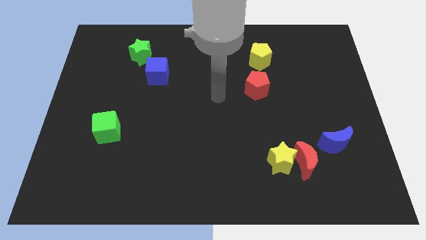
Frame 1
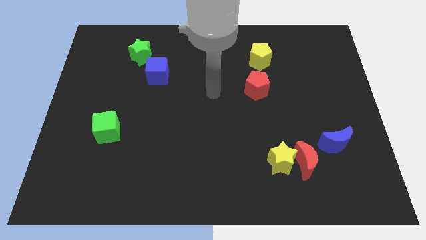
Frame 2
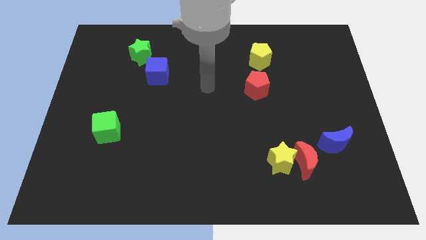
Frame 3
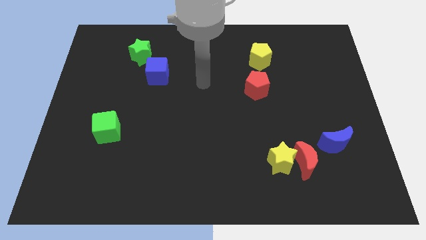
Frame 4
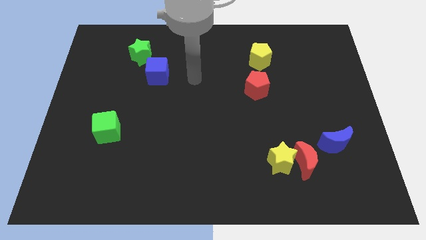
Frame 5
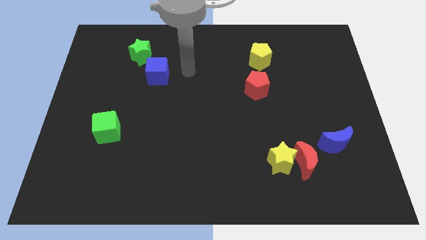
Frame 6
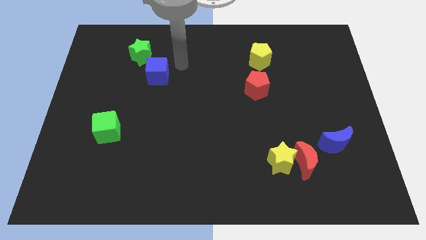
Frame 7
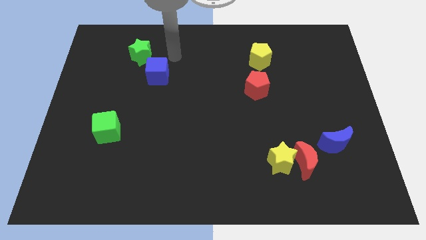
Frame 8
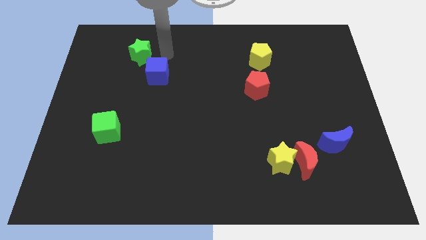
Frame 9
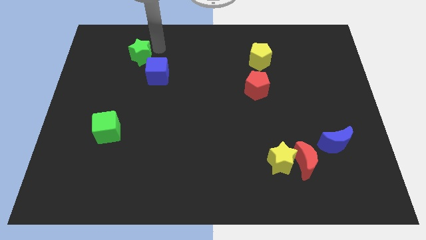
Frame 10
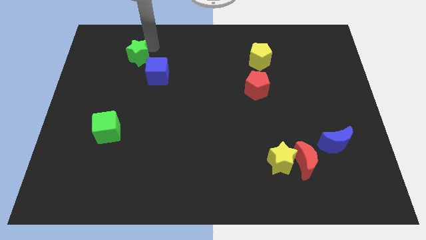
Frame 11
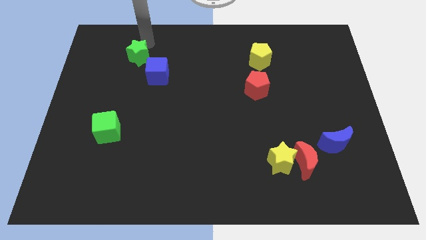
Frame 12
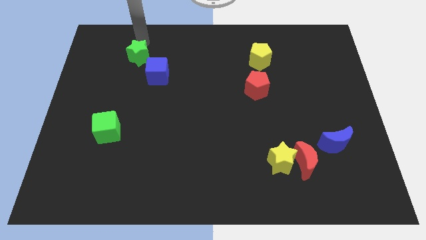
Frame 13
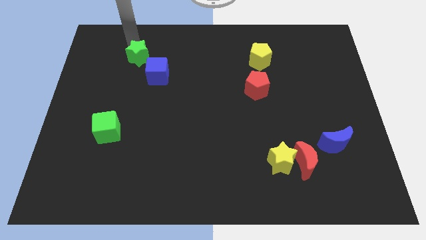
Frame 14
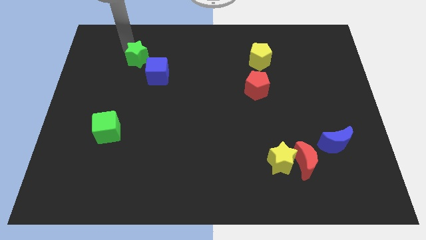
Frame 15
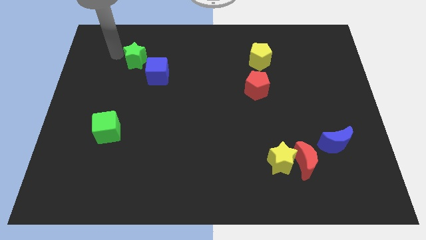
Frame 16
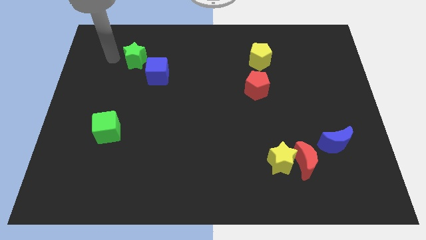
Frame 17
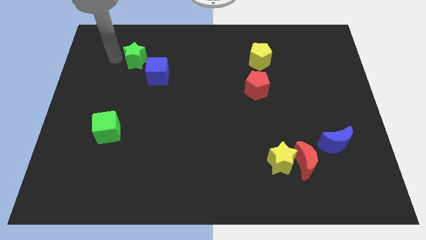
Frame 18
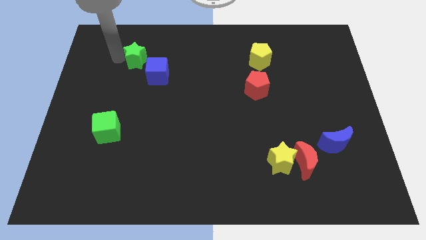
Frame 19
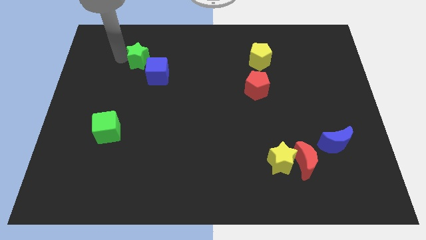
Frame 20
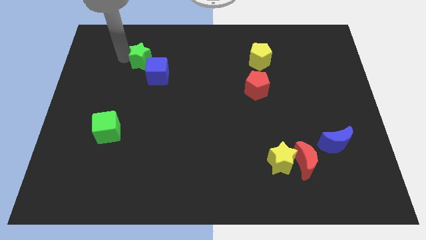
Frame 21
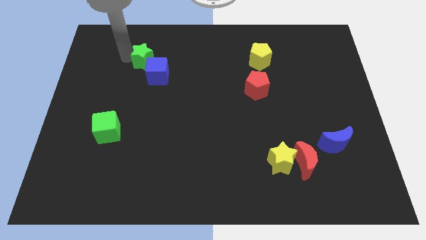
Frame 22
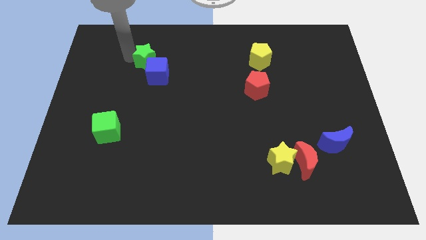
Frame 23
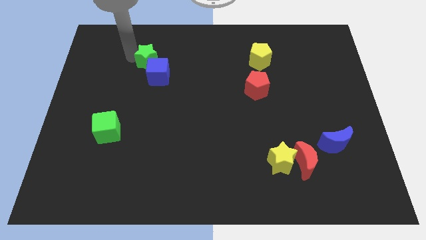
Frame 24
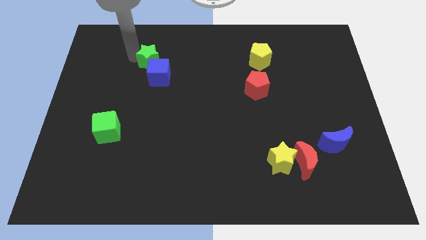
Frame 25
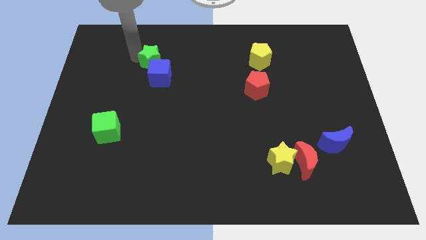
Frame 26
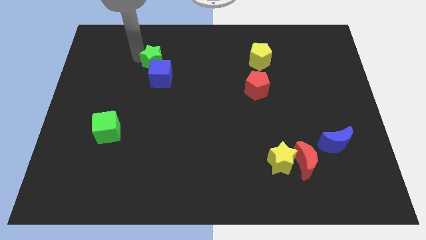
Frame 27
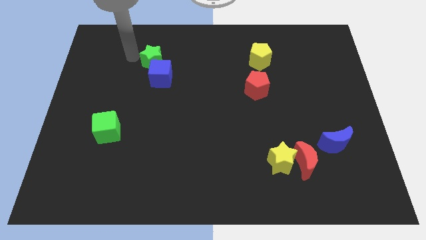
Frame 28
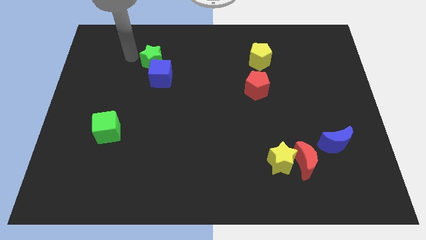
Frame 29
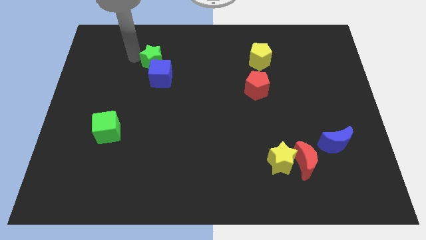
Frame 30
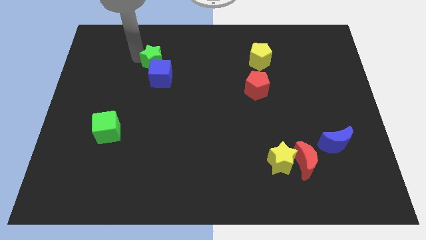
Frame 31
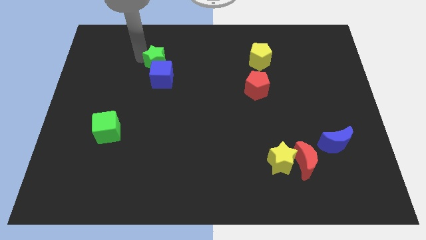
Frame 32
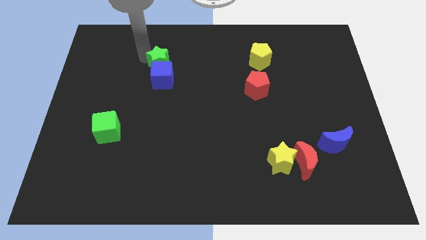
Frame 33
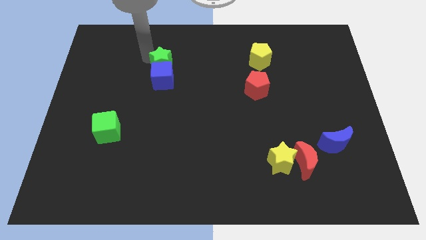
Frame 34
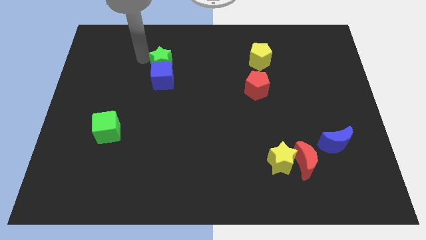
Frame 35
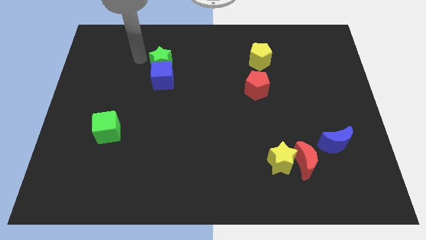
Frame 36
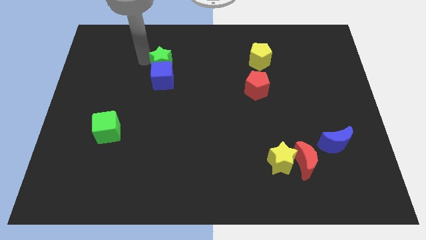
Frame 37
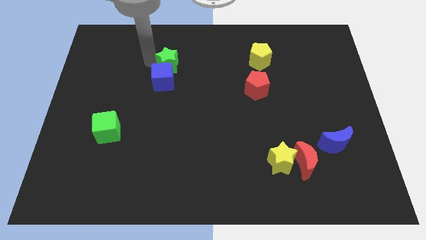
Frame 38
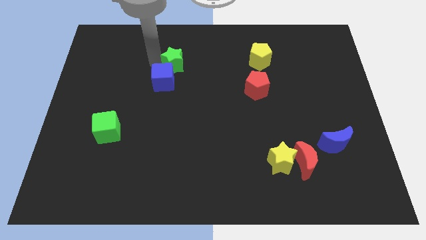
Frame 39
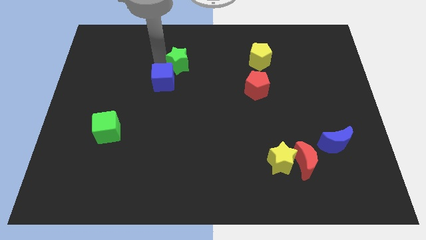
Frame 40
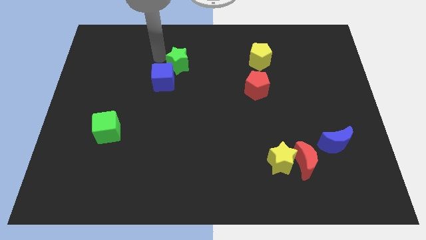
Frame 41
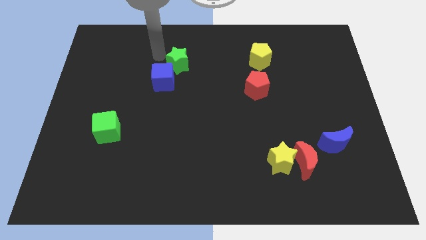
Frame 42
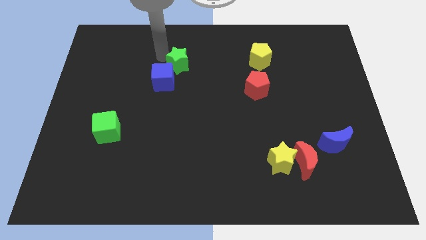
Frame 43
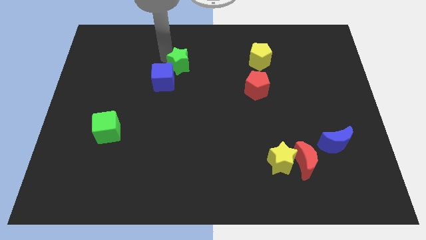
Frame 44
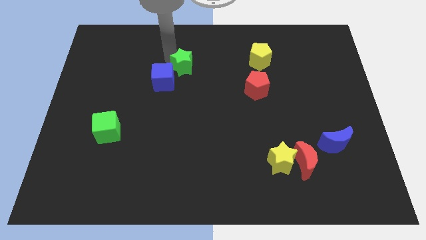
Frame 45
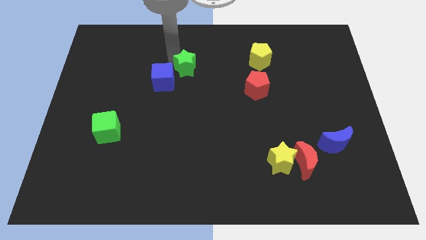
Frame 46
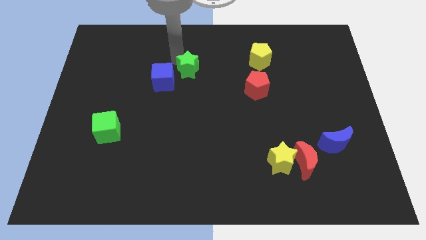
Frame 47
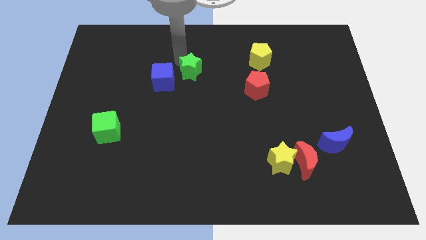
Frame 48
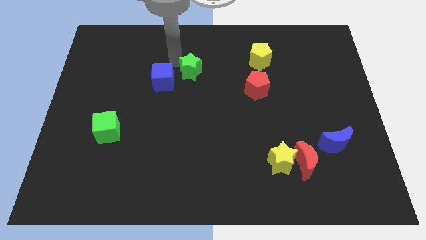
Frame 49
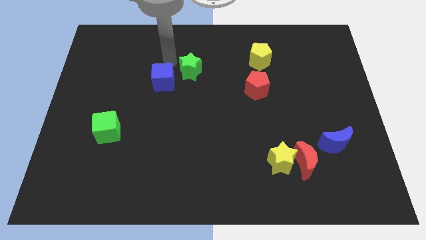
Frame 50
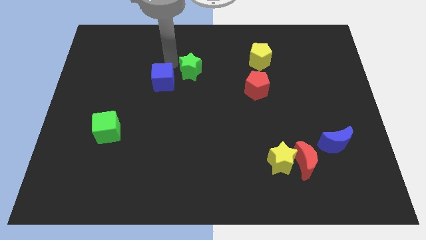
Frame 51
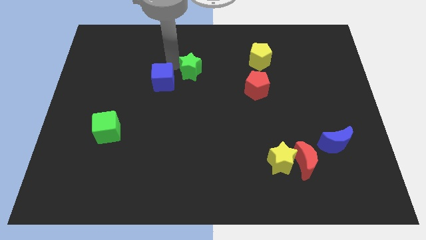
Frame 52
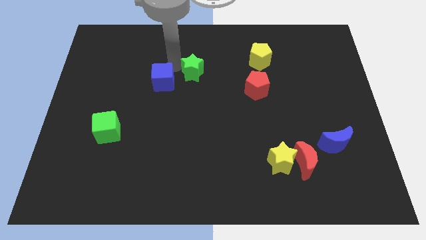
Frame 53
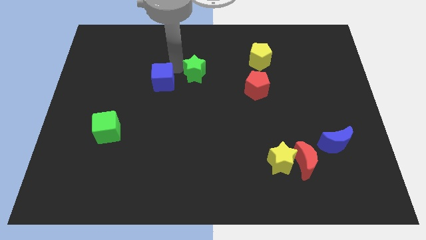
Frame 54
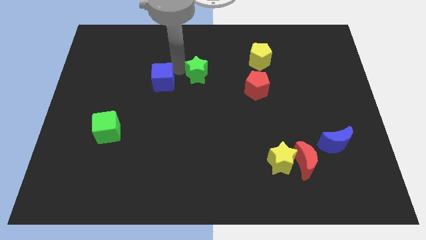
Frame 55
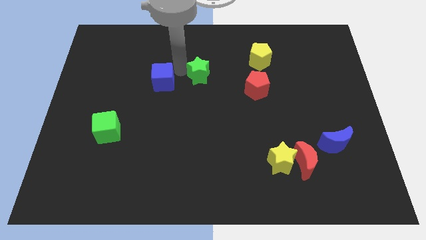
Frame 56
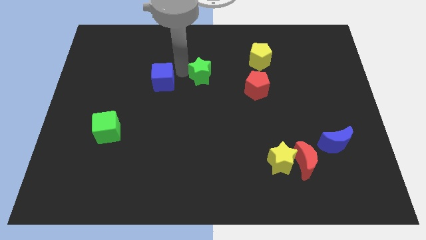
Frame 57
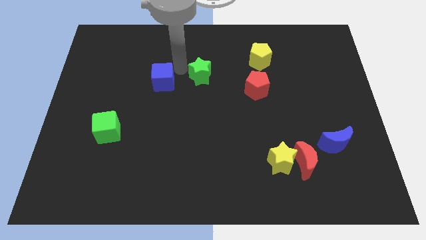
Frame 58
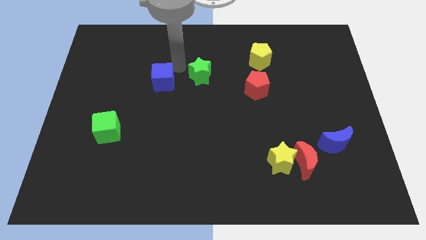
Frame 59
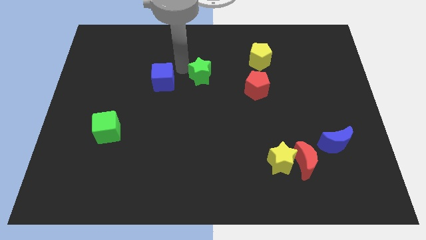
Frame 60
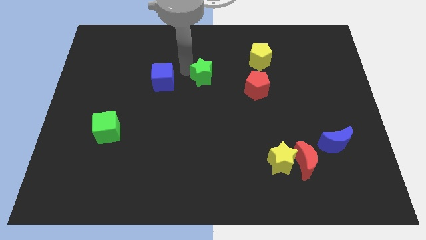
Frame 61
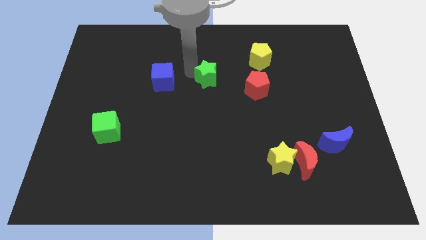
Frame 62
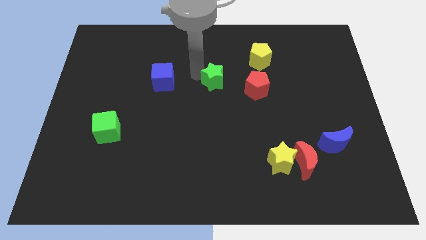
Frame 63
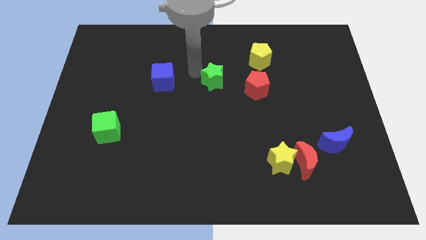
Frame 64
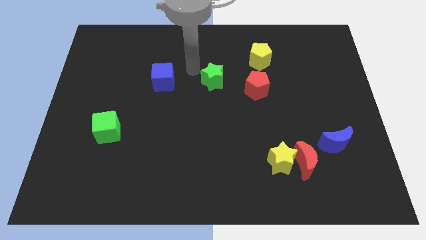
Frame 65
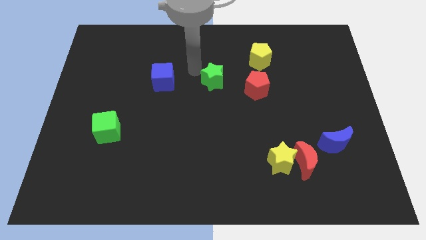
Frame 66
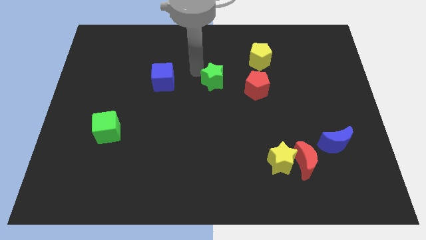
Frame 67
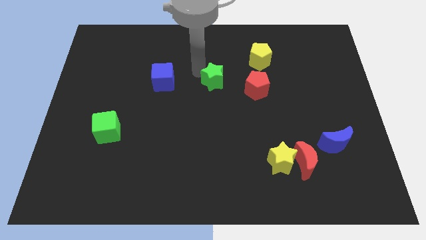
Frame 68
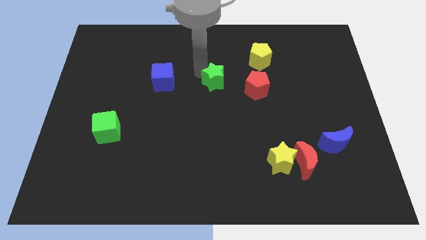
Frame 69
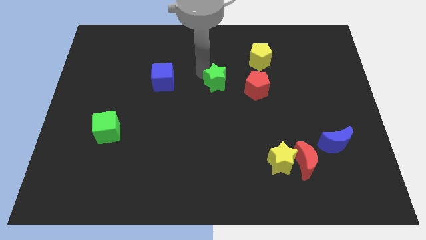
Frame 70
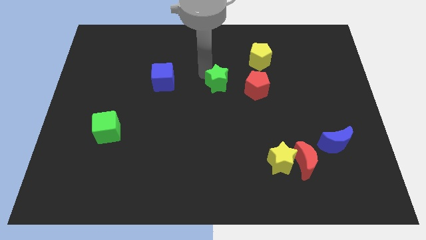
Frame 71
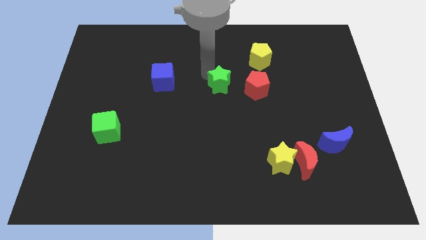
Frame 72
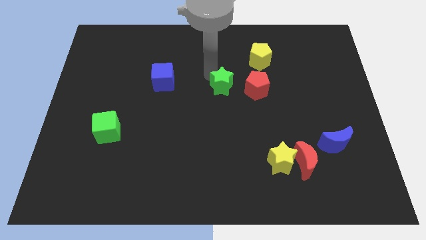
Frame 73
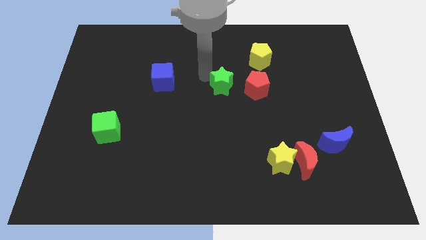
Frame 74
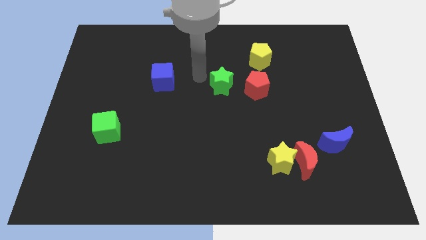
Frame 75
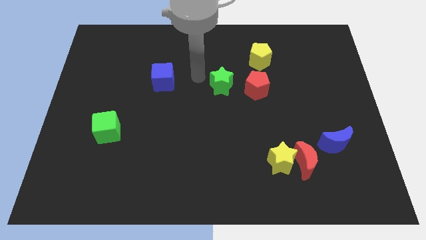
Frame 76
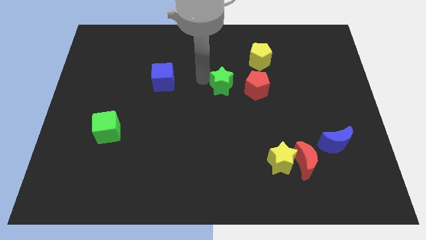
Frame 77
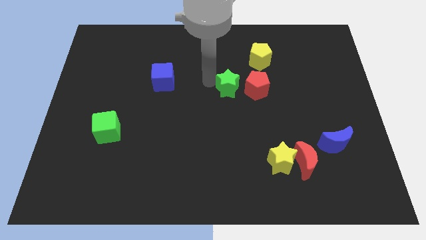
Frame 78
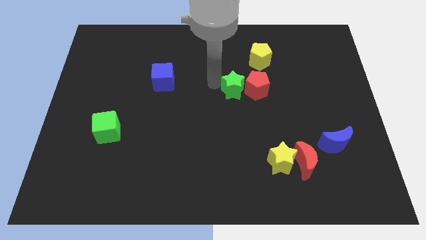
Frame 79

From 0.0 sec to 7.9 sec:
slide the green star to the red pentagon
